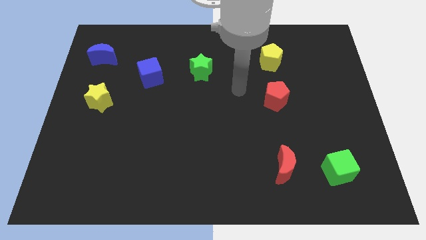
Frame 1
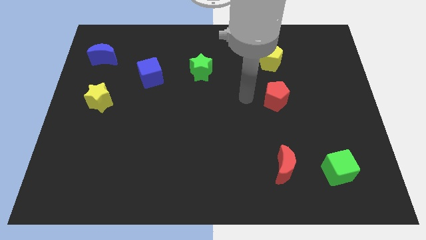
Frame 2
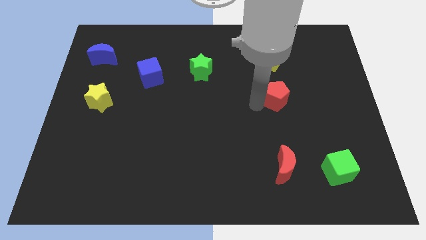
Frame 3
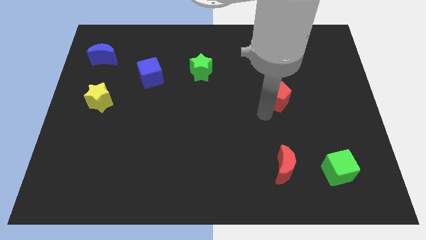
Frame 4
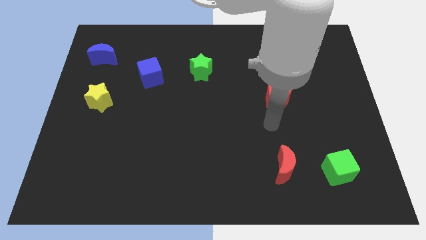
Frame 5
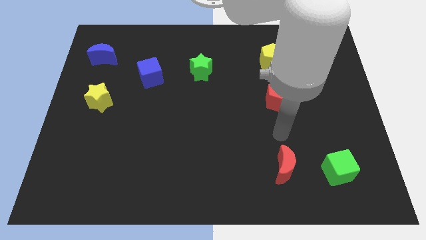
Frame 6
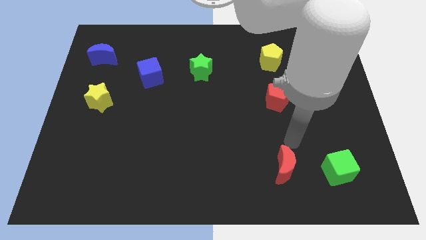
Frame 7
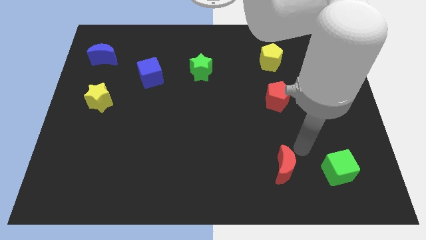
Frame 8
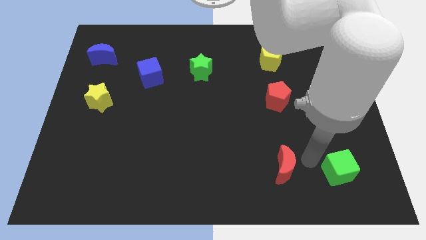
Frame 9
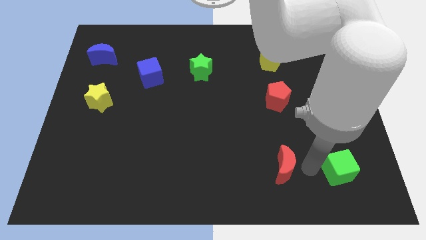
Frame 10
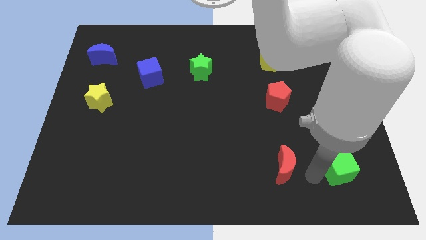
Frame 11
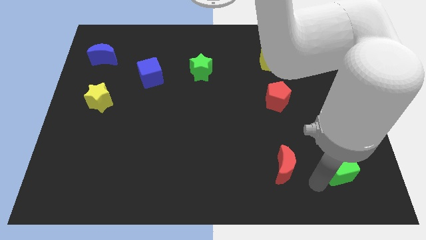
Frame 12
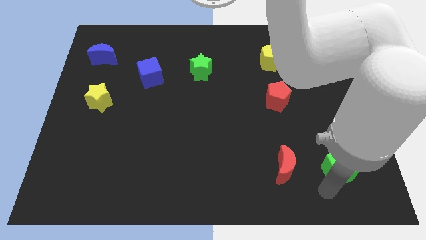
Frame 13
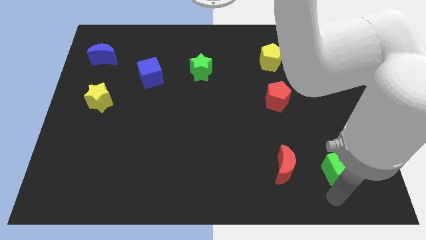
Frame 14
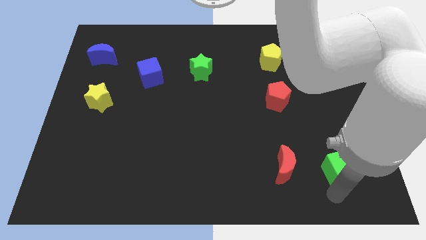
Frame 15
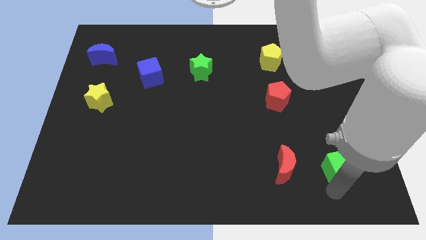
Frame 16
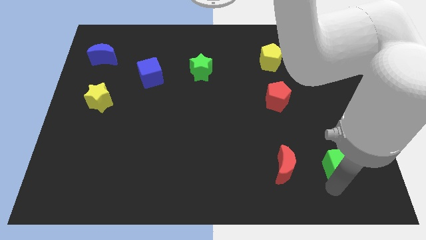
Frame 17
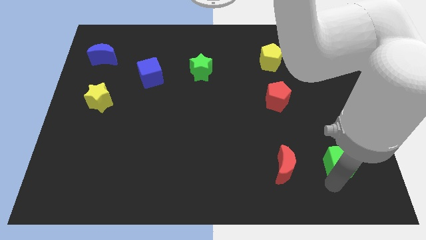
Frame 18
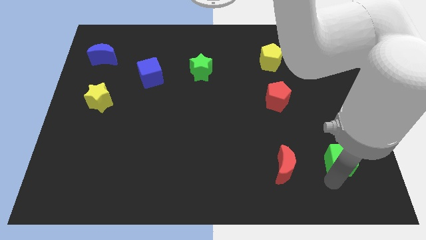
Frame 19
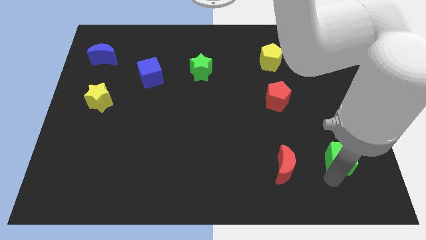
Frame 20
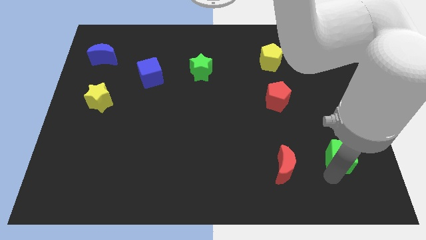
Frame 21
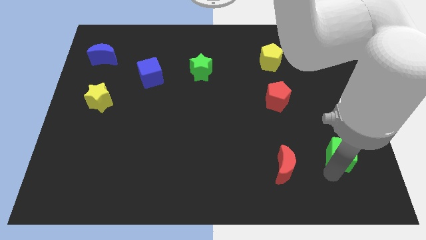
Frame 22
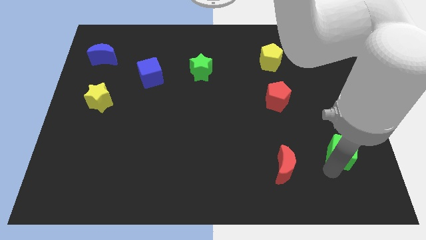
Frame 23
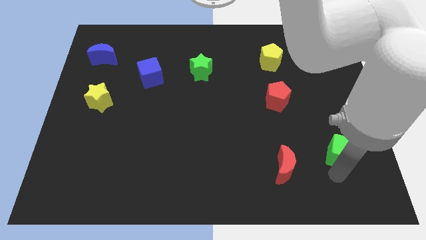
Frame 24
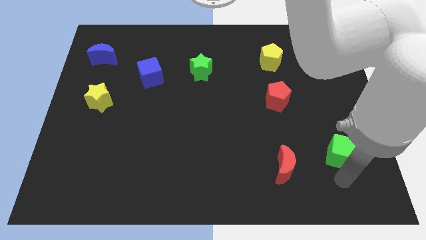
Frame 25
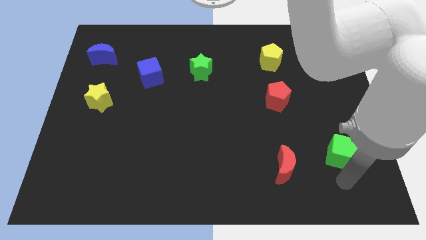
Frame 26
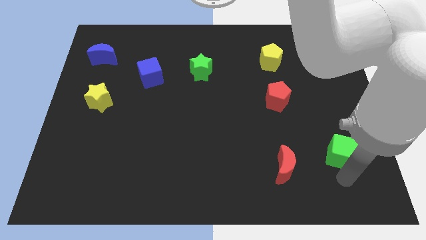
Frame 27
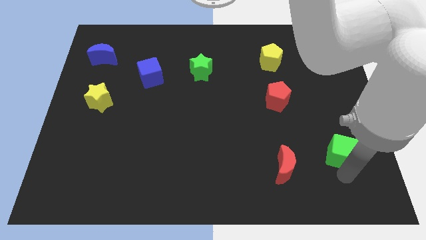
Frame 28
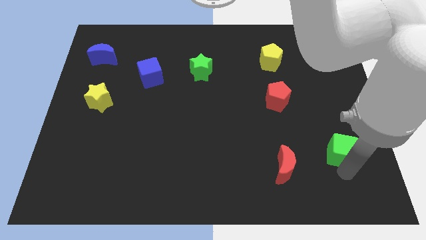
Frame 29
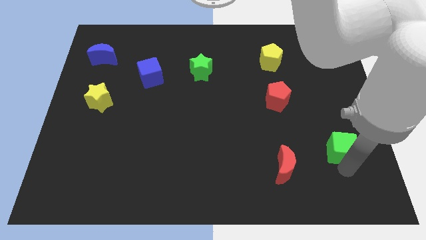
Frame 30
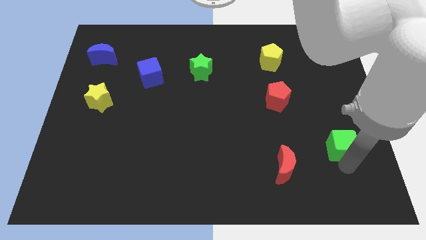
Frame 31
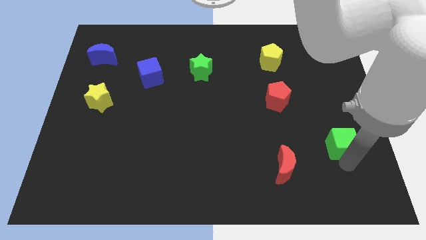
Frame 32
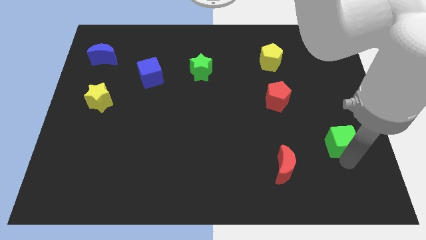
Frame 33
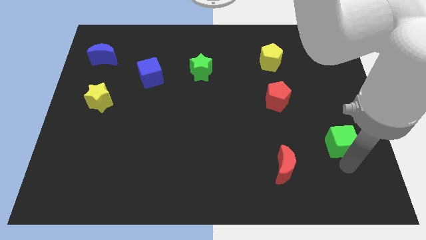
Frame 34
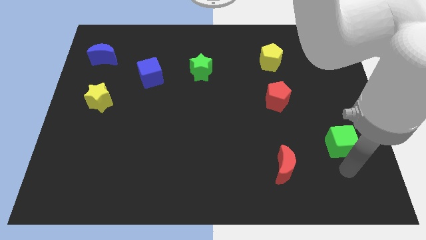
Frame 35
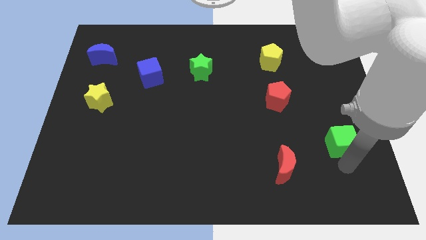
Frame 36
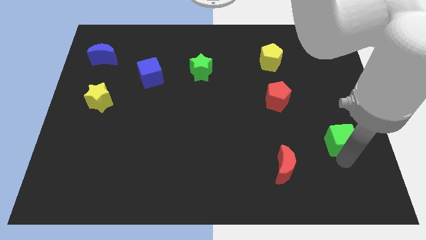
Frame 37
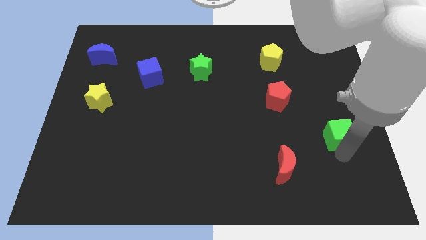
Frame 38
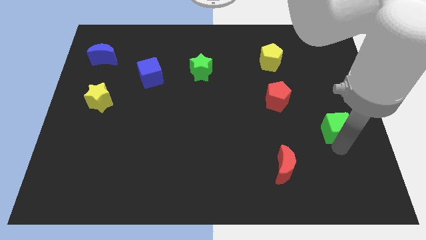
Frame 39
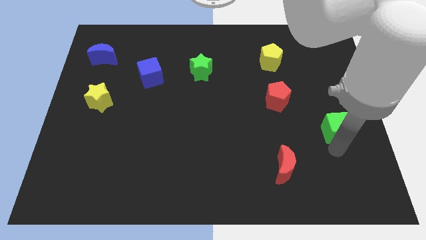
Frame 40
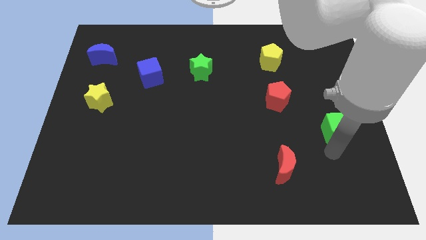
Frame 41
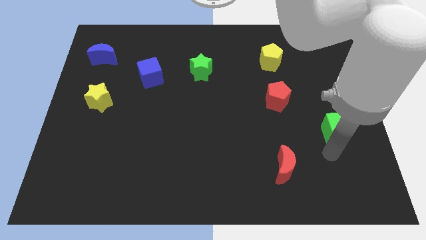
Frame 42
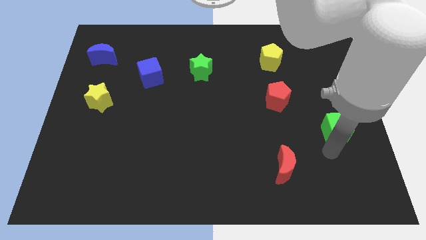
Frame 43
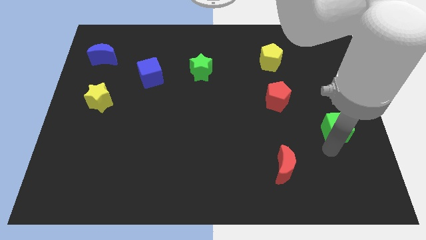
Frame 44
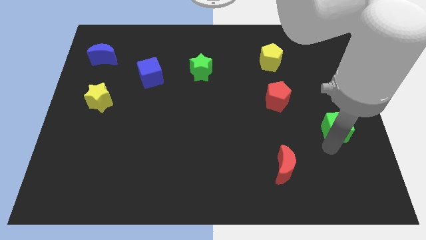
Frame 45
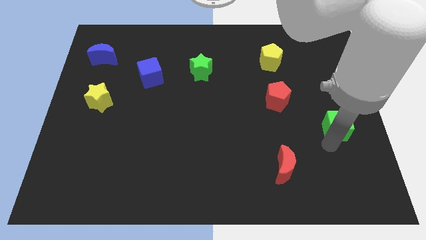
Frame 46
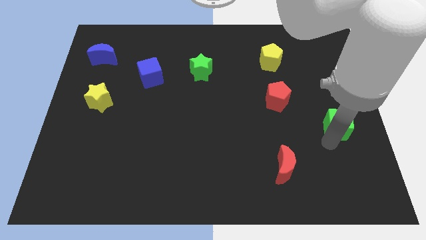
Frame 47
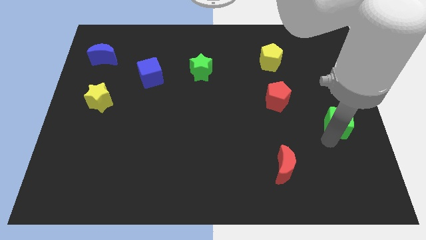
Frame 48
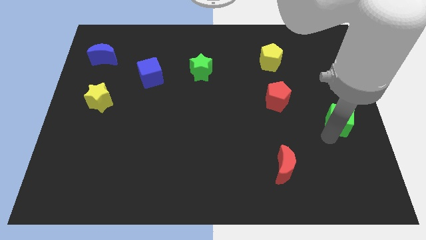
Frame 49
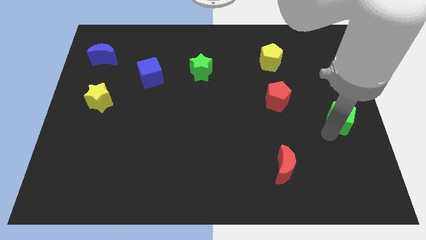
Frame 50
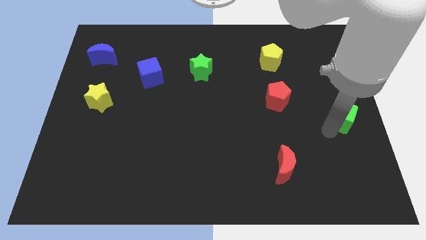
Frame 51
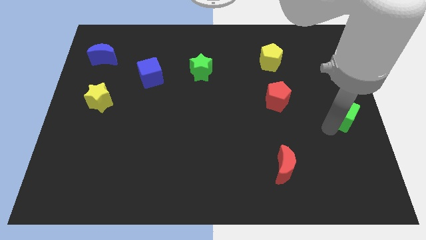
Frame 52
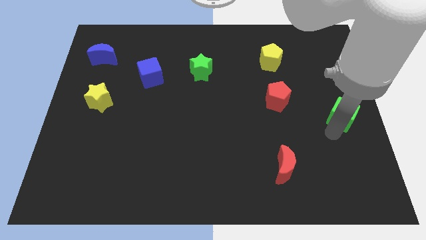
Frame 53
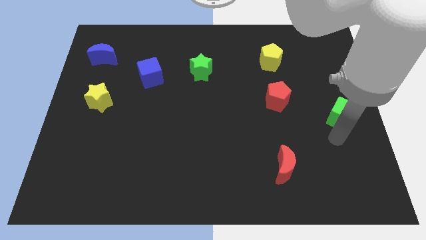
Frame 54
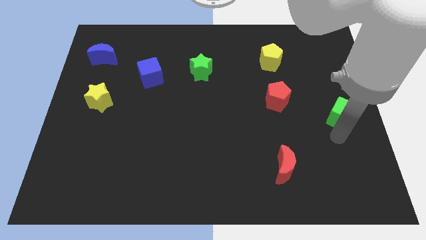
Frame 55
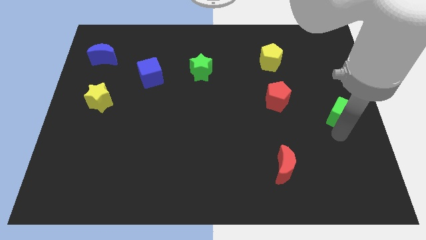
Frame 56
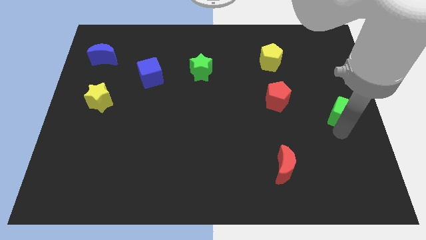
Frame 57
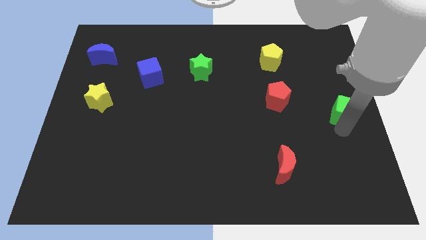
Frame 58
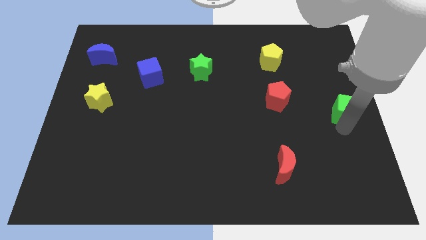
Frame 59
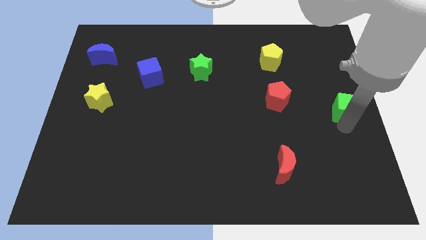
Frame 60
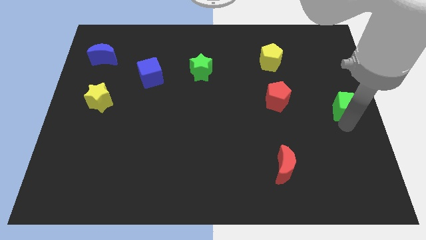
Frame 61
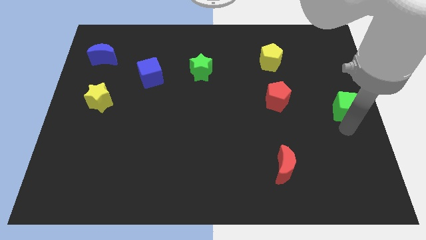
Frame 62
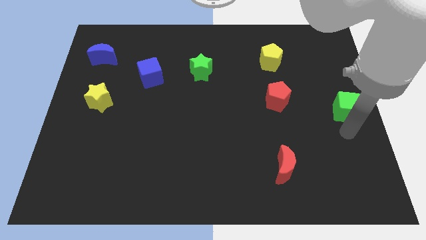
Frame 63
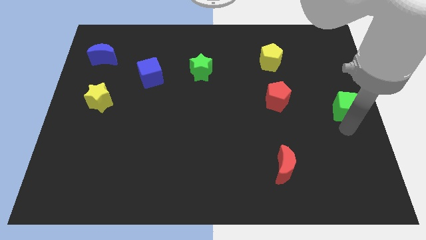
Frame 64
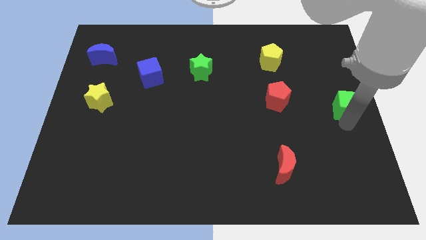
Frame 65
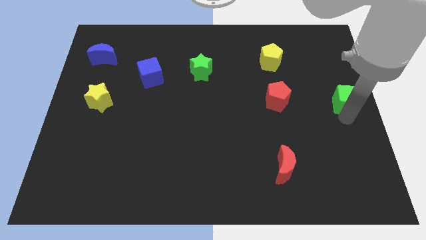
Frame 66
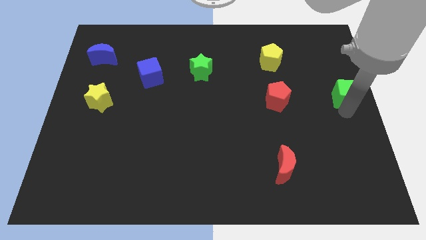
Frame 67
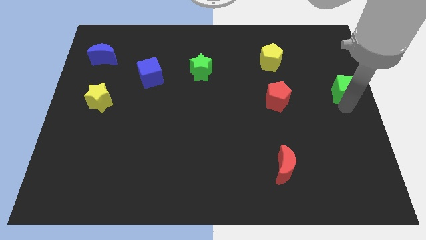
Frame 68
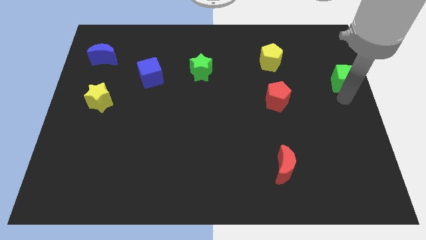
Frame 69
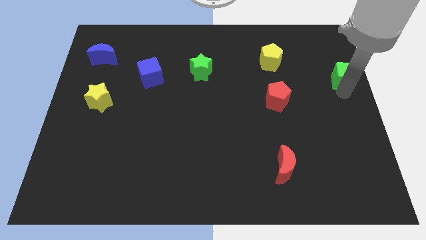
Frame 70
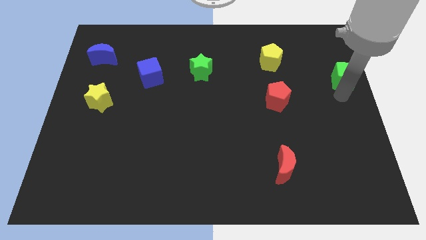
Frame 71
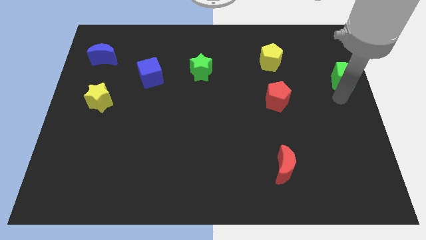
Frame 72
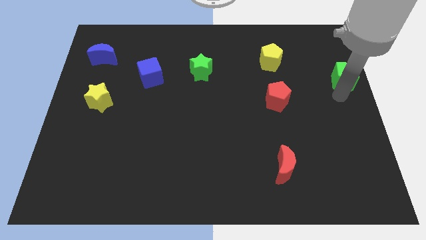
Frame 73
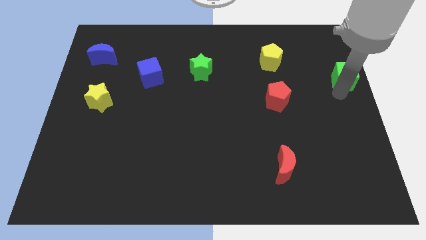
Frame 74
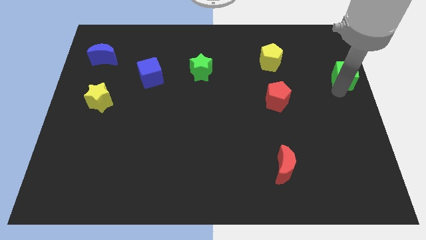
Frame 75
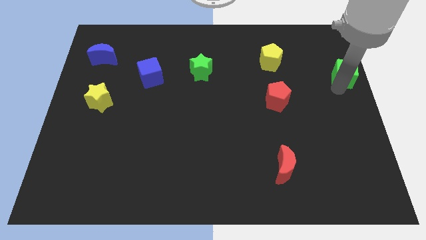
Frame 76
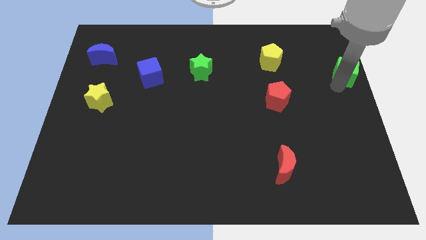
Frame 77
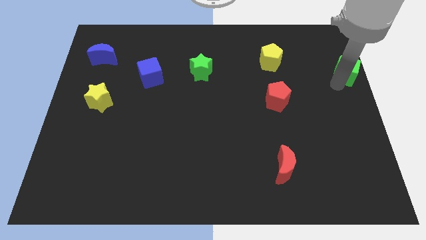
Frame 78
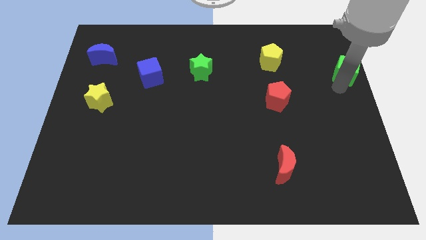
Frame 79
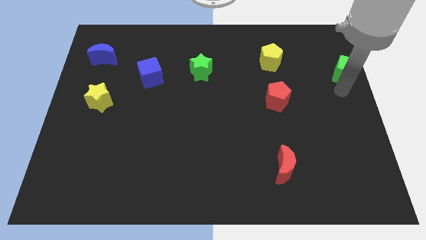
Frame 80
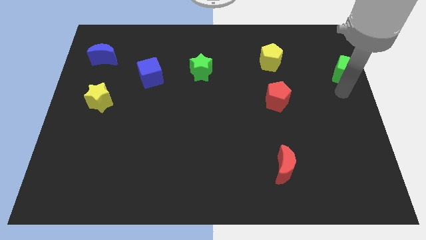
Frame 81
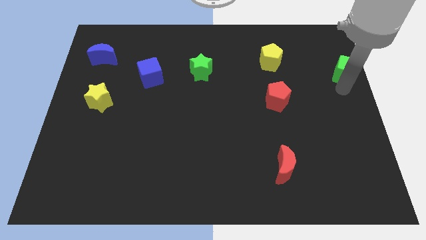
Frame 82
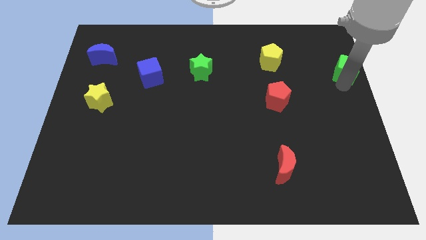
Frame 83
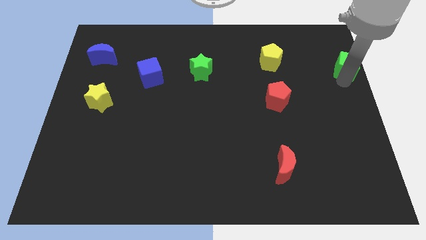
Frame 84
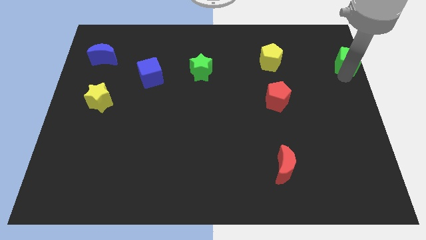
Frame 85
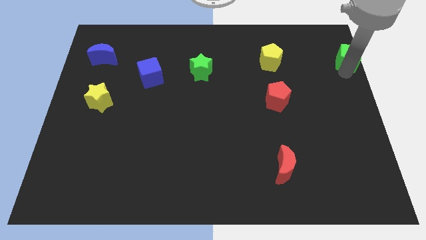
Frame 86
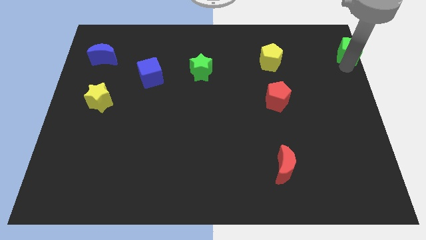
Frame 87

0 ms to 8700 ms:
put the green cube to the top right of the board
